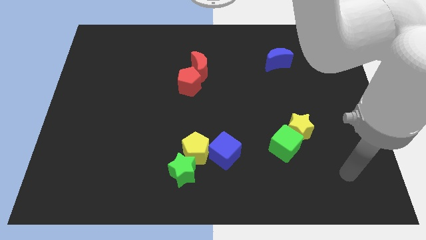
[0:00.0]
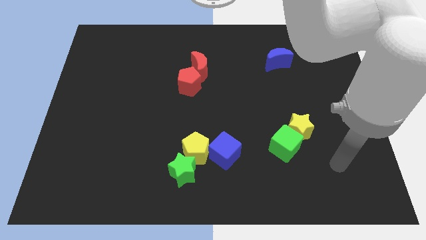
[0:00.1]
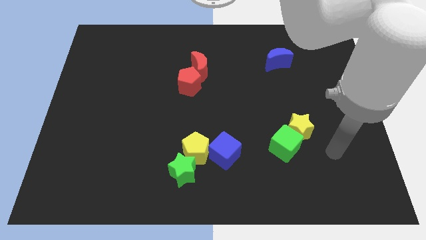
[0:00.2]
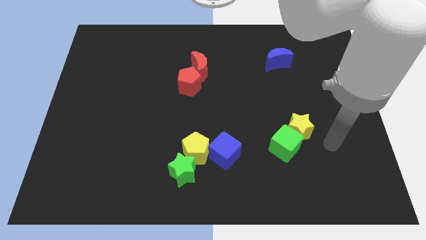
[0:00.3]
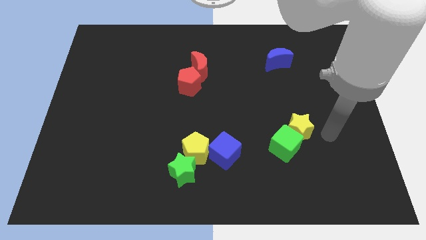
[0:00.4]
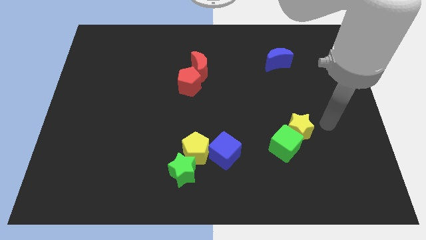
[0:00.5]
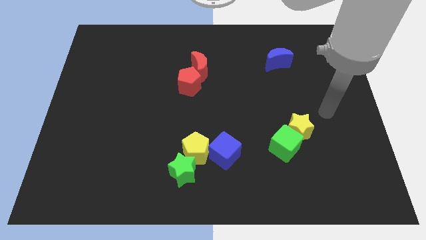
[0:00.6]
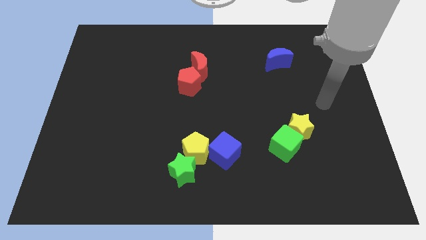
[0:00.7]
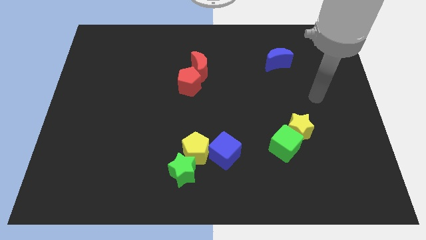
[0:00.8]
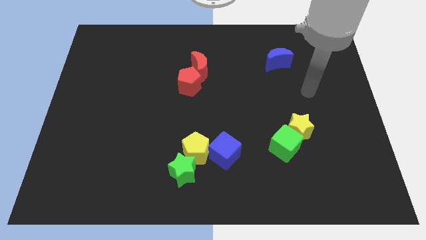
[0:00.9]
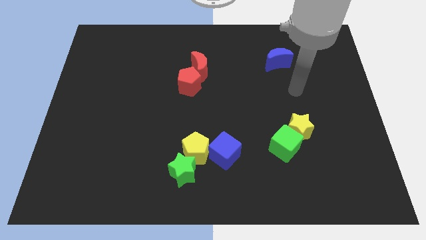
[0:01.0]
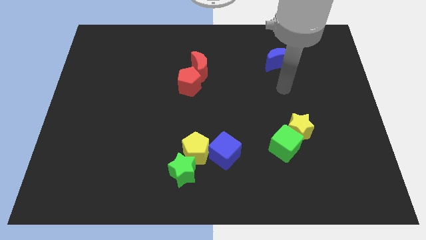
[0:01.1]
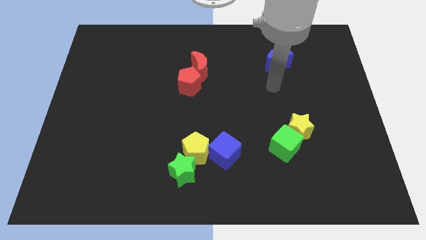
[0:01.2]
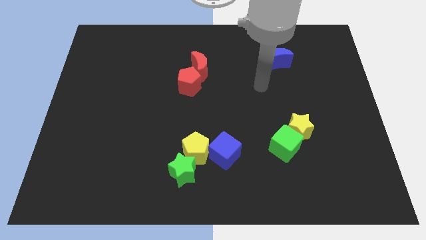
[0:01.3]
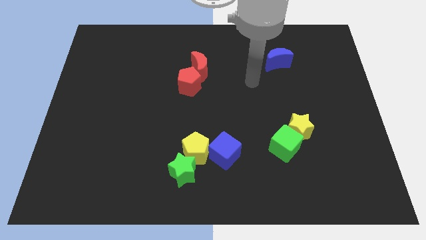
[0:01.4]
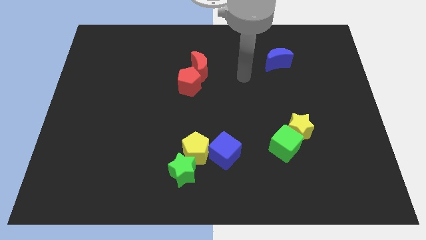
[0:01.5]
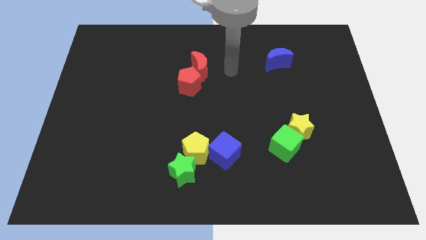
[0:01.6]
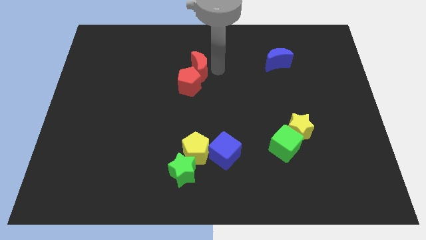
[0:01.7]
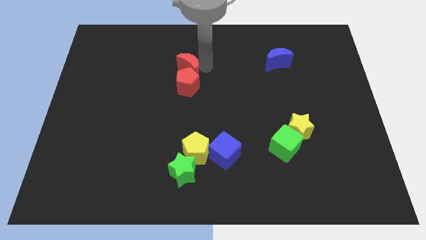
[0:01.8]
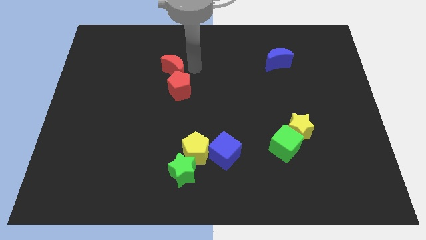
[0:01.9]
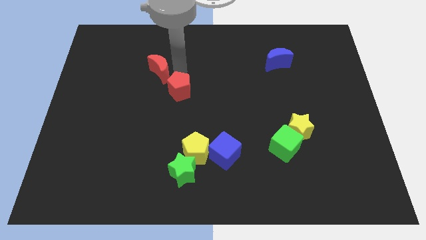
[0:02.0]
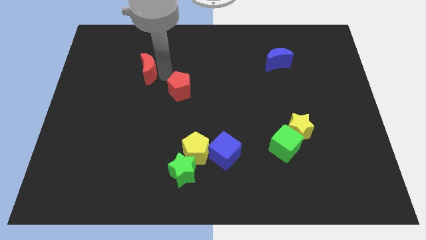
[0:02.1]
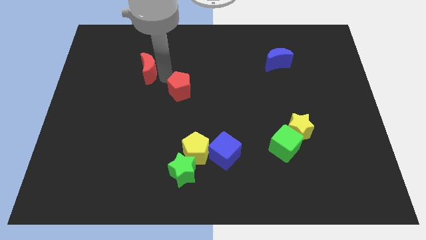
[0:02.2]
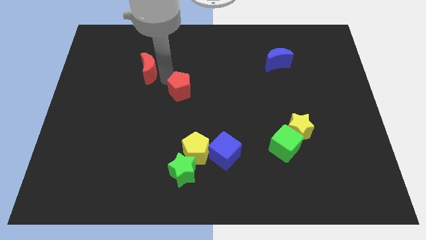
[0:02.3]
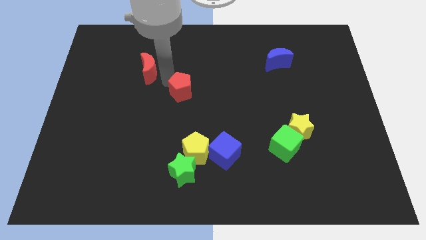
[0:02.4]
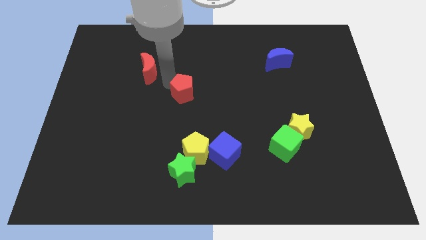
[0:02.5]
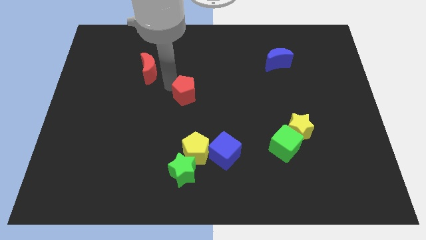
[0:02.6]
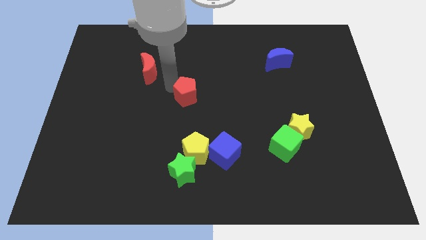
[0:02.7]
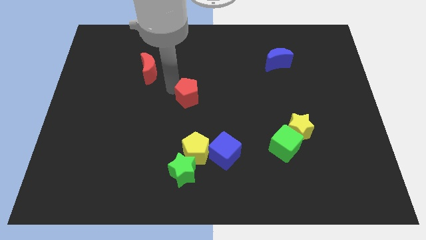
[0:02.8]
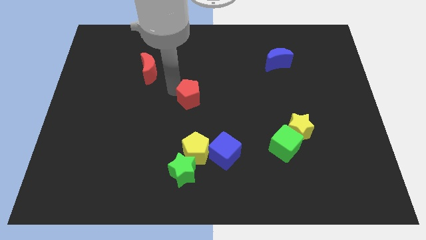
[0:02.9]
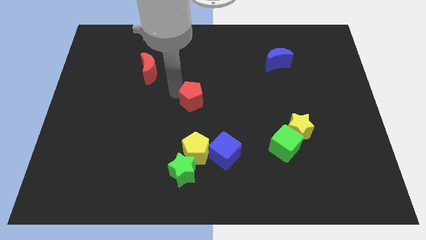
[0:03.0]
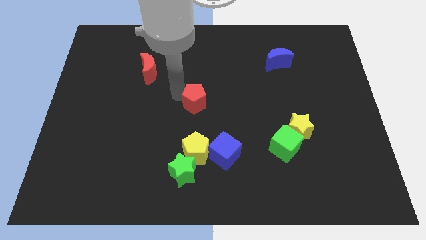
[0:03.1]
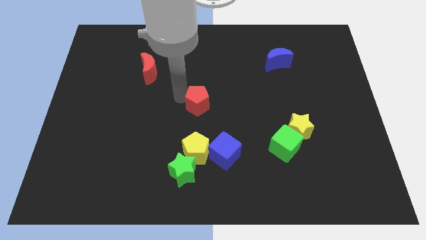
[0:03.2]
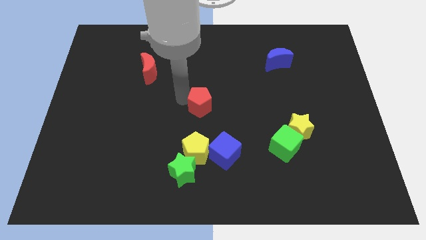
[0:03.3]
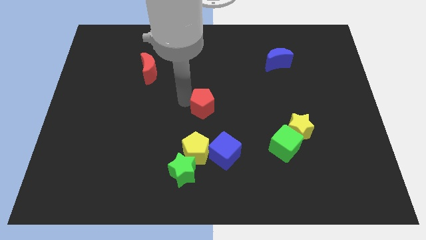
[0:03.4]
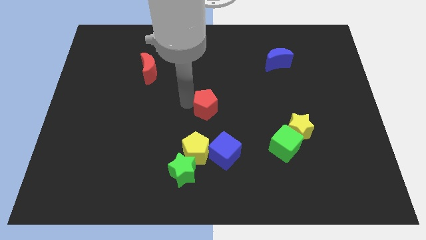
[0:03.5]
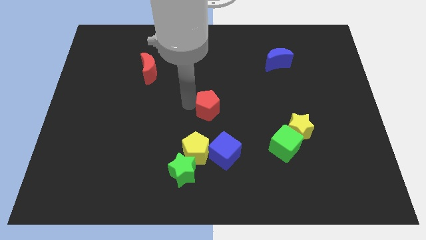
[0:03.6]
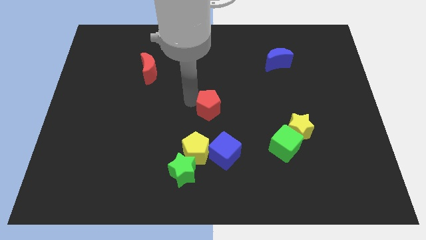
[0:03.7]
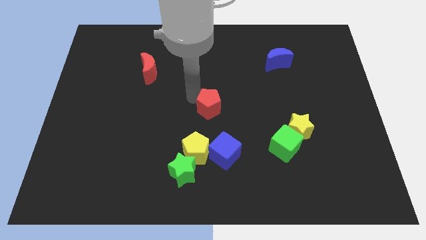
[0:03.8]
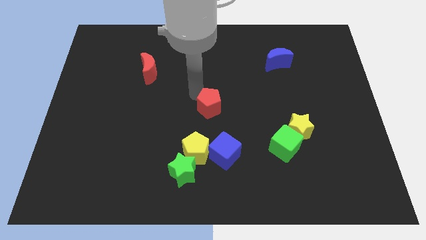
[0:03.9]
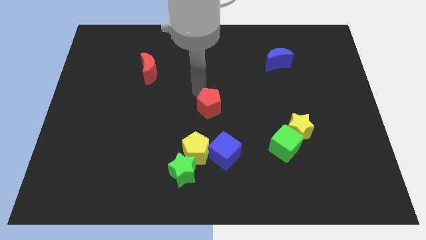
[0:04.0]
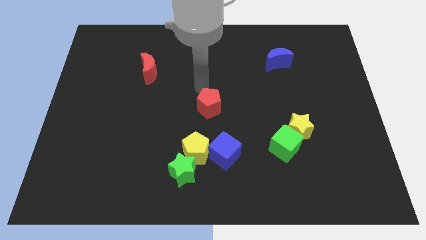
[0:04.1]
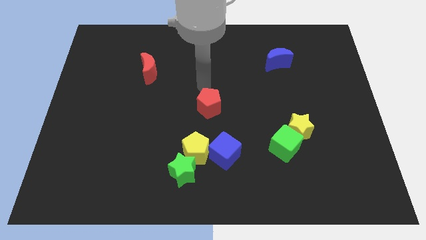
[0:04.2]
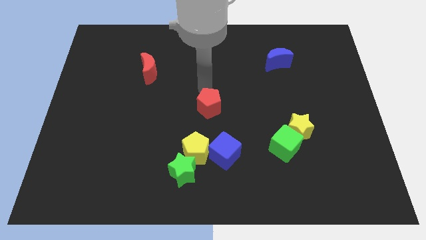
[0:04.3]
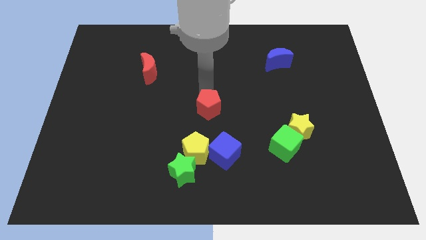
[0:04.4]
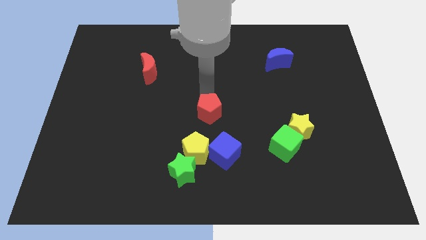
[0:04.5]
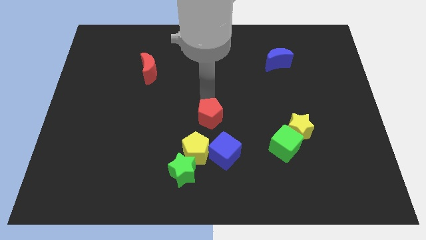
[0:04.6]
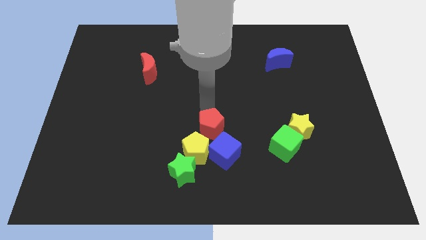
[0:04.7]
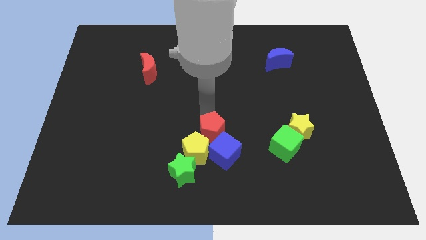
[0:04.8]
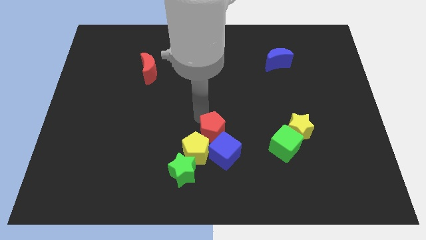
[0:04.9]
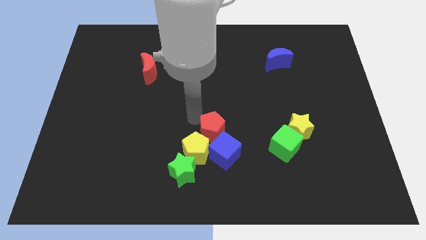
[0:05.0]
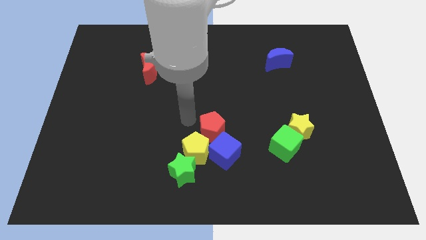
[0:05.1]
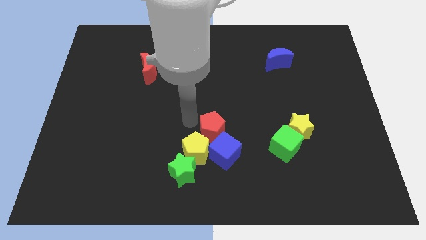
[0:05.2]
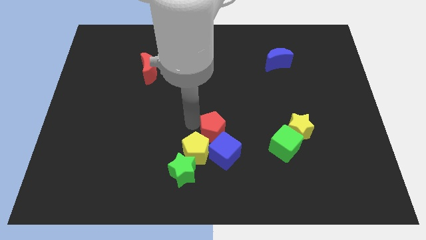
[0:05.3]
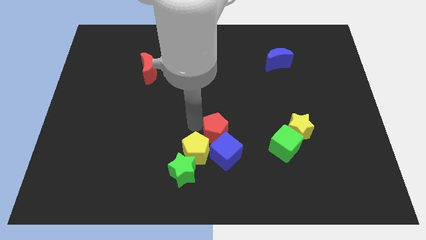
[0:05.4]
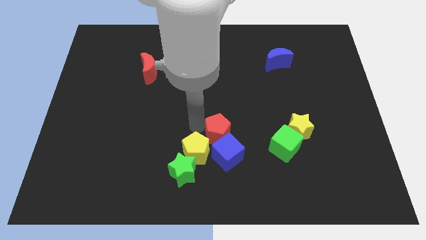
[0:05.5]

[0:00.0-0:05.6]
move the red pentagon right of the yellow pentagon

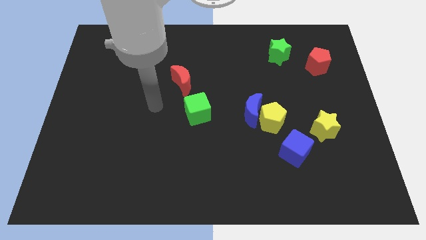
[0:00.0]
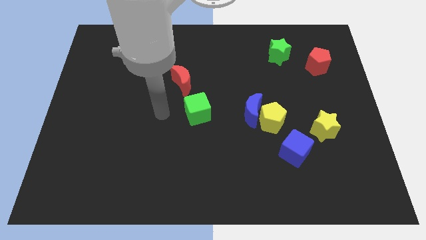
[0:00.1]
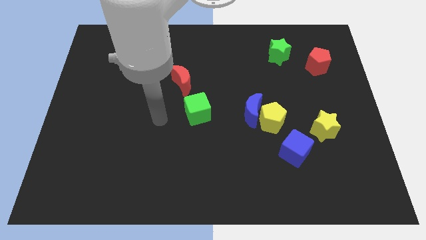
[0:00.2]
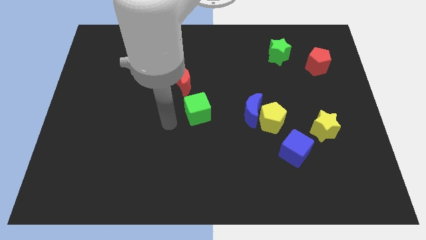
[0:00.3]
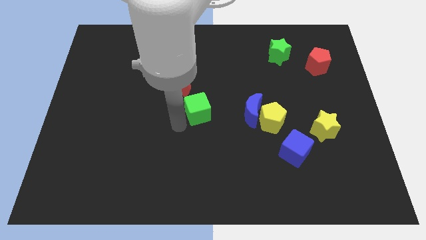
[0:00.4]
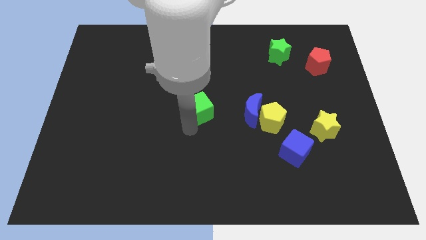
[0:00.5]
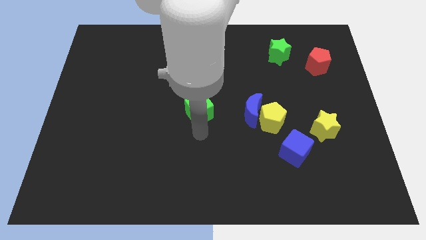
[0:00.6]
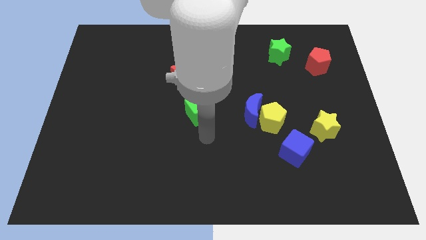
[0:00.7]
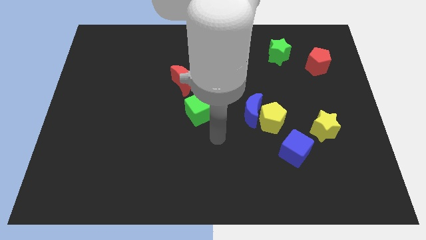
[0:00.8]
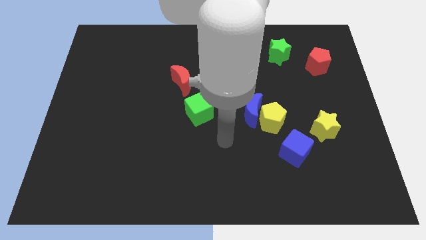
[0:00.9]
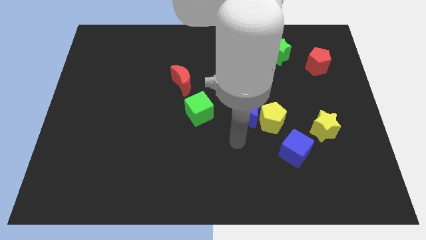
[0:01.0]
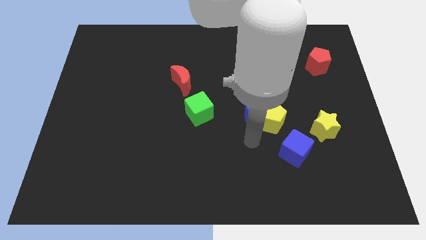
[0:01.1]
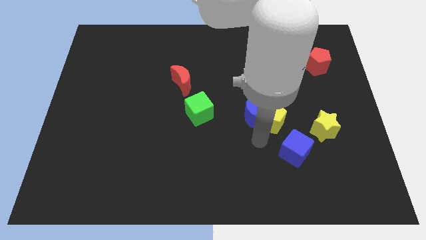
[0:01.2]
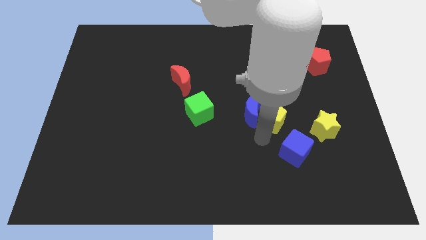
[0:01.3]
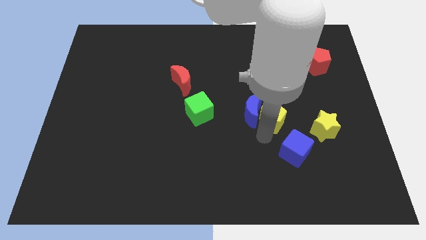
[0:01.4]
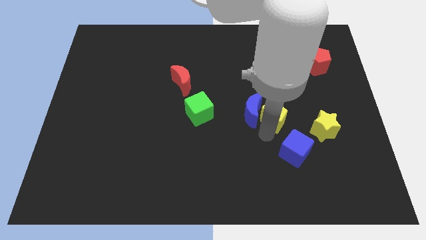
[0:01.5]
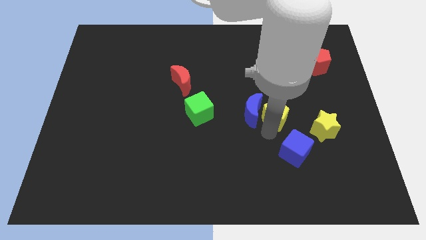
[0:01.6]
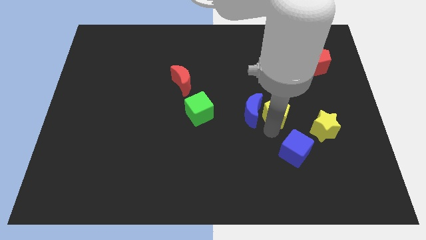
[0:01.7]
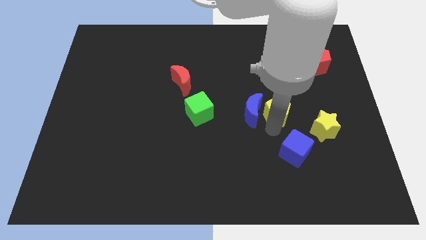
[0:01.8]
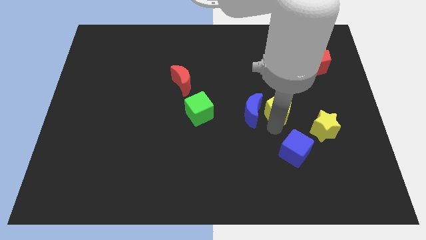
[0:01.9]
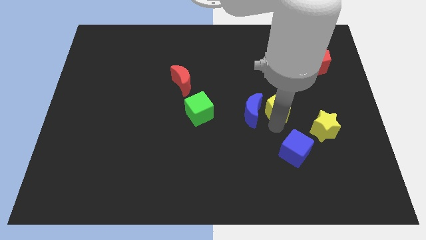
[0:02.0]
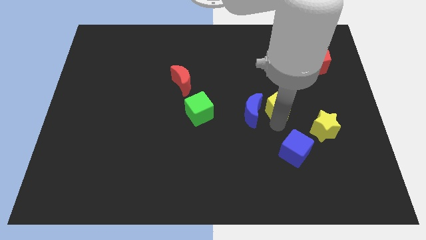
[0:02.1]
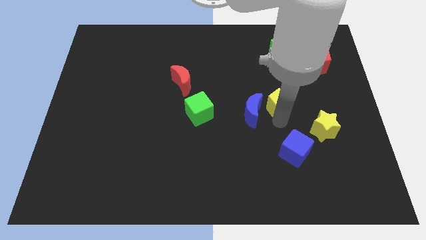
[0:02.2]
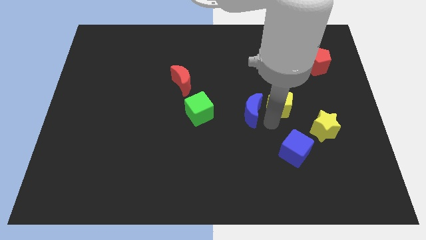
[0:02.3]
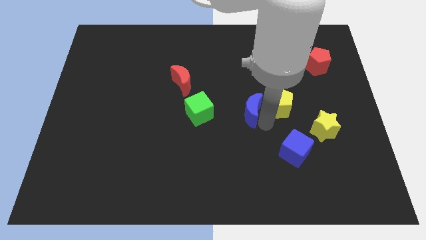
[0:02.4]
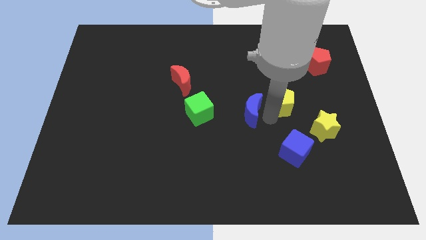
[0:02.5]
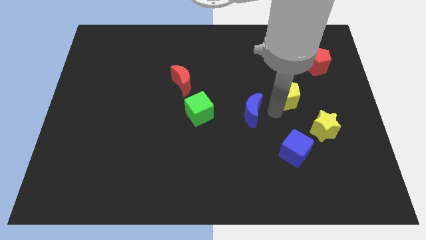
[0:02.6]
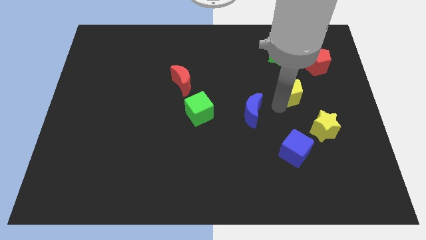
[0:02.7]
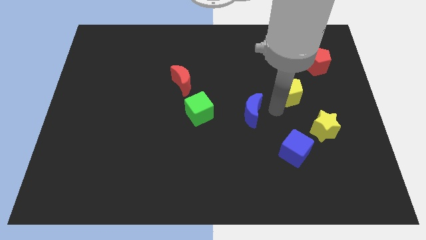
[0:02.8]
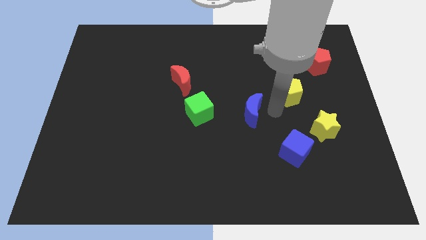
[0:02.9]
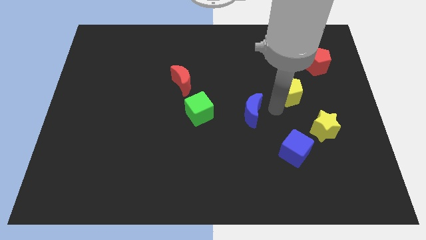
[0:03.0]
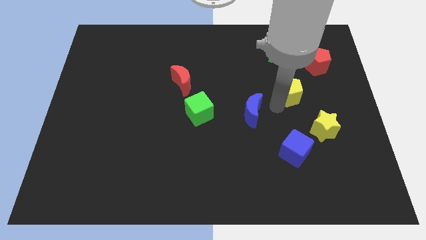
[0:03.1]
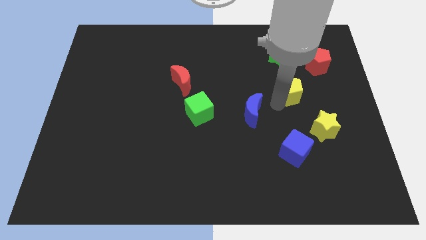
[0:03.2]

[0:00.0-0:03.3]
move the yellow pentagon to the bottom left side of the red pentagon
